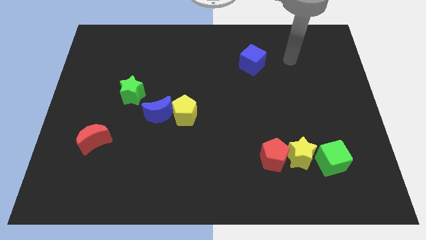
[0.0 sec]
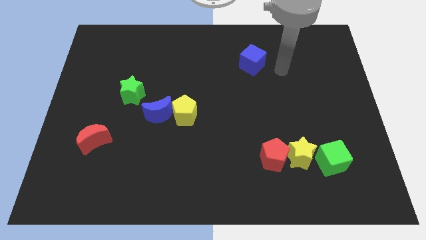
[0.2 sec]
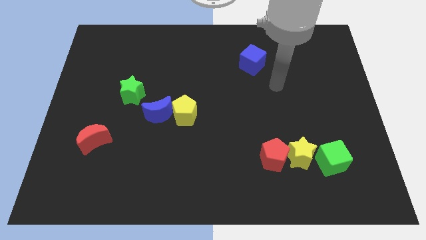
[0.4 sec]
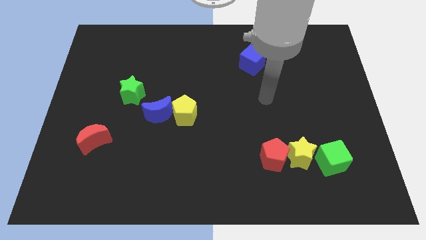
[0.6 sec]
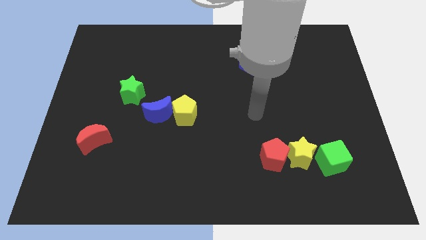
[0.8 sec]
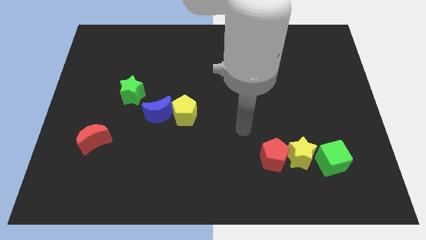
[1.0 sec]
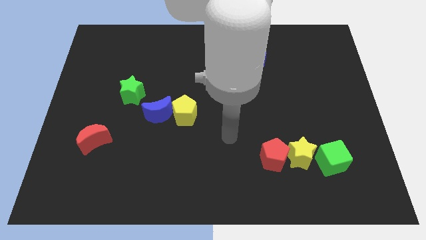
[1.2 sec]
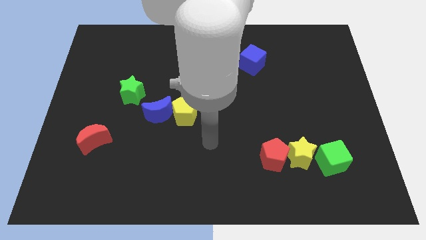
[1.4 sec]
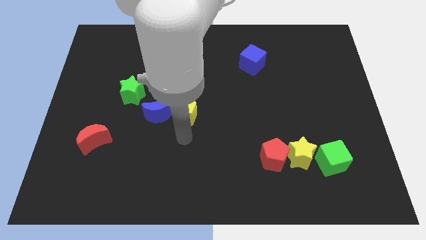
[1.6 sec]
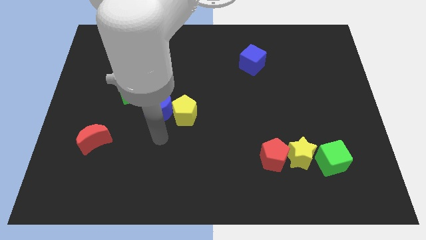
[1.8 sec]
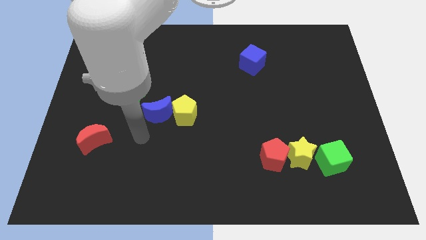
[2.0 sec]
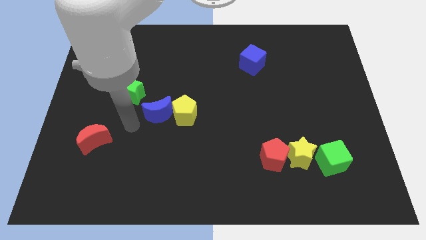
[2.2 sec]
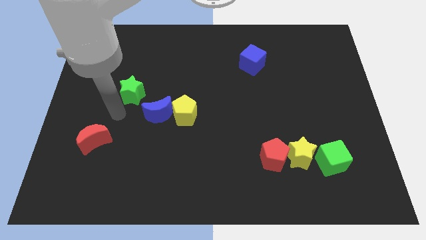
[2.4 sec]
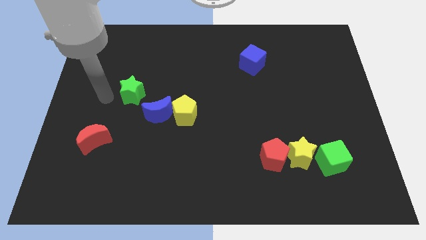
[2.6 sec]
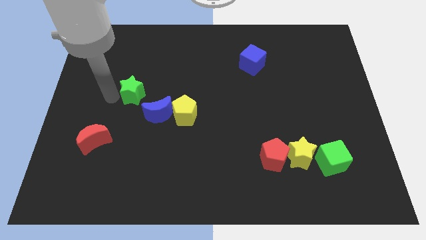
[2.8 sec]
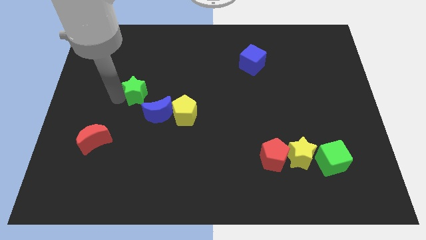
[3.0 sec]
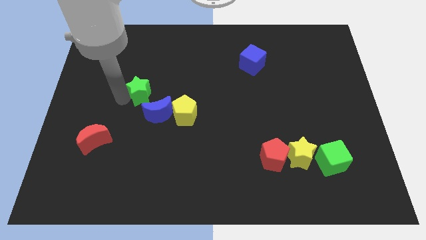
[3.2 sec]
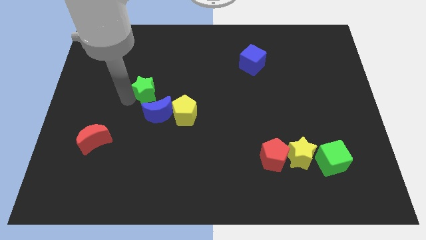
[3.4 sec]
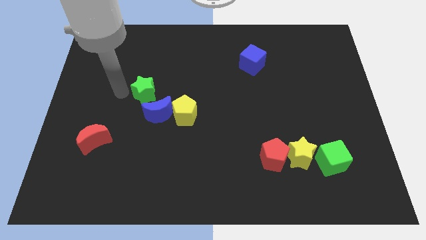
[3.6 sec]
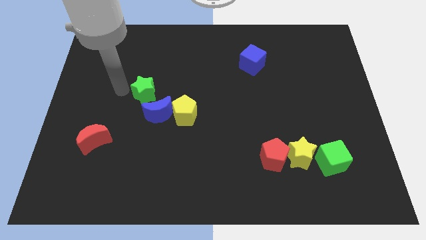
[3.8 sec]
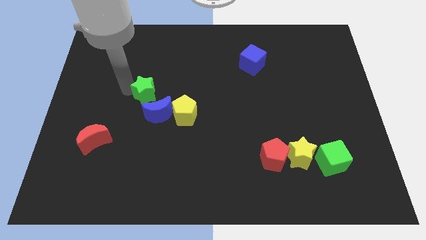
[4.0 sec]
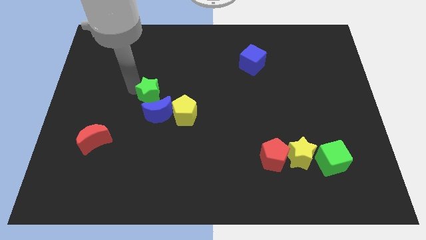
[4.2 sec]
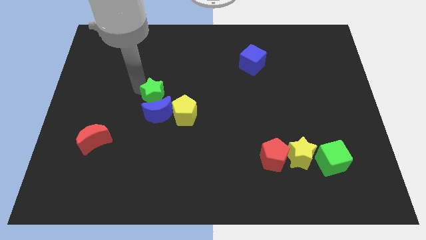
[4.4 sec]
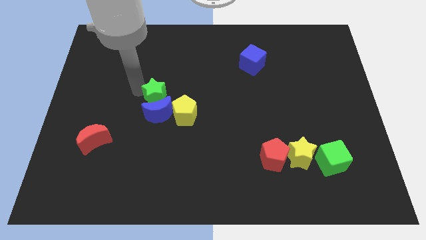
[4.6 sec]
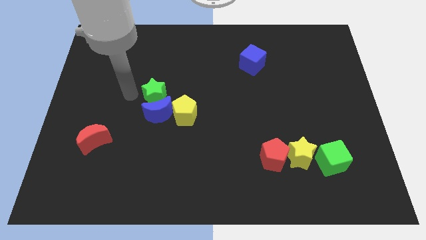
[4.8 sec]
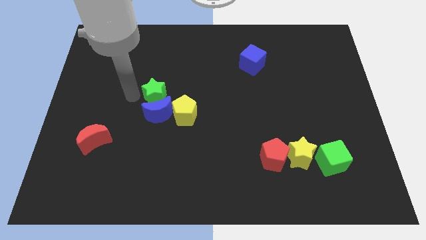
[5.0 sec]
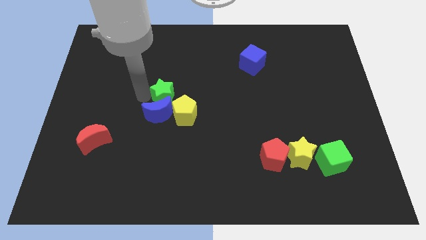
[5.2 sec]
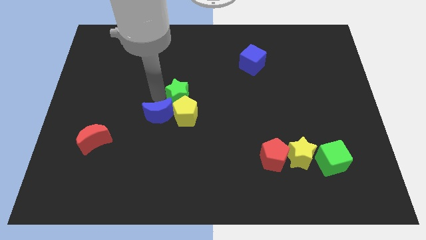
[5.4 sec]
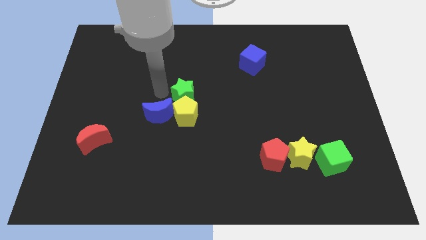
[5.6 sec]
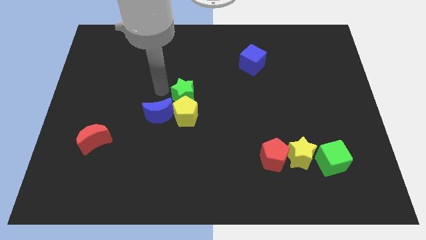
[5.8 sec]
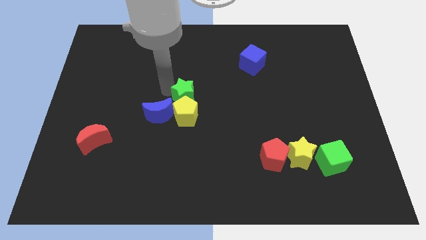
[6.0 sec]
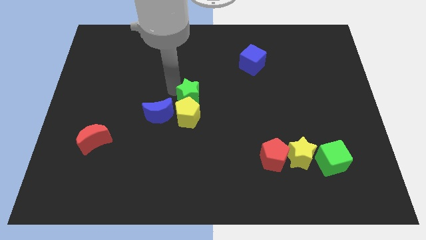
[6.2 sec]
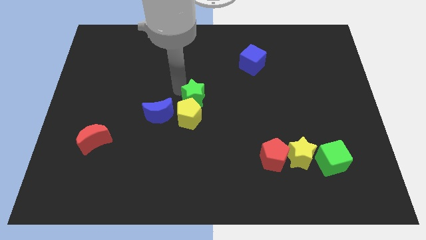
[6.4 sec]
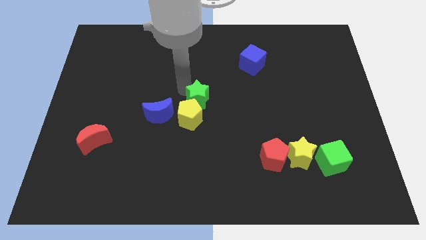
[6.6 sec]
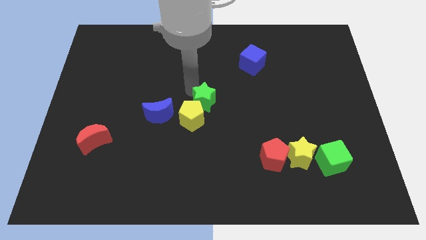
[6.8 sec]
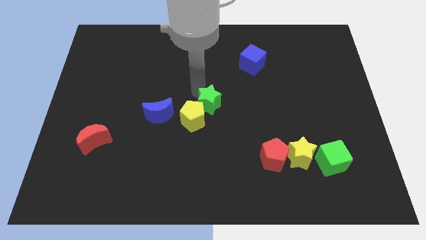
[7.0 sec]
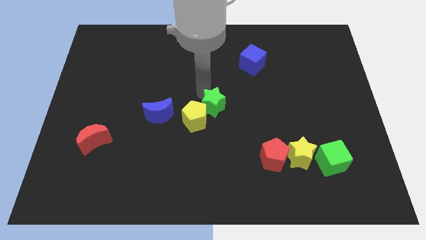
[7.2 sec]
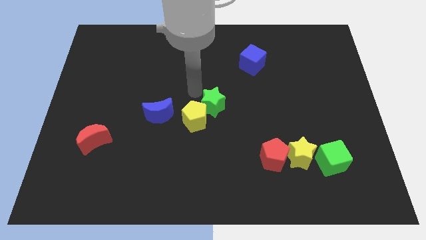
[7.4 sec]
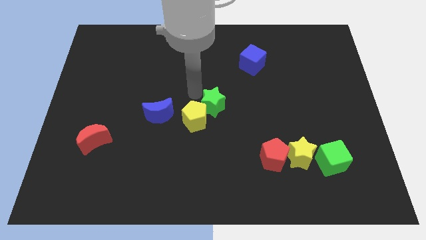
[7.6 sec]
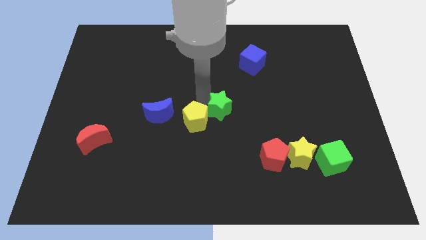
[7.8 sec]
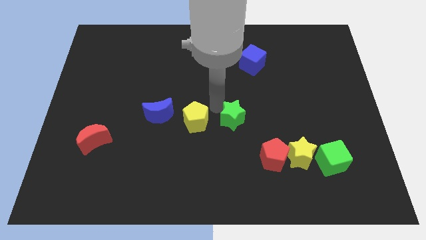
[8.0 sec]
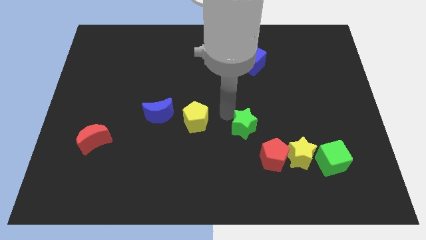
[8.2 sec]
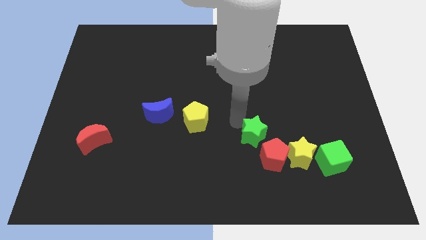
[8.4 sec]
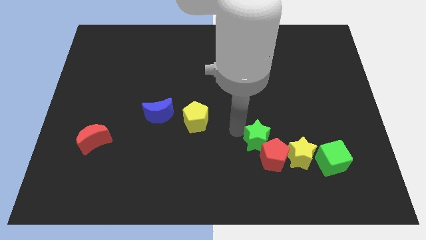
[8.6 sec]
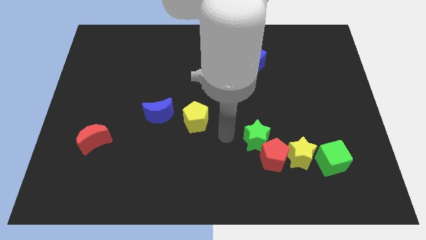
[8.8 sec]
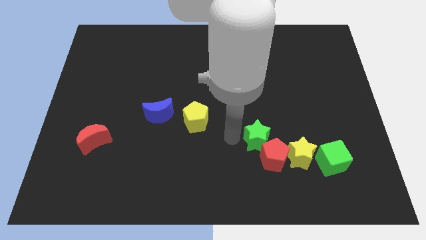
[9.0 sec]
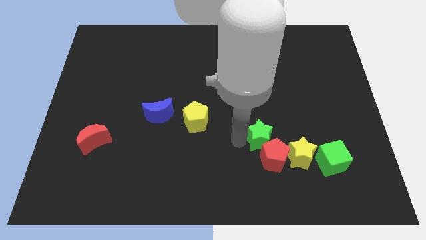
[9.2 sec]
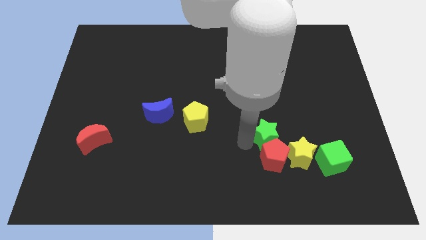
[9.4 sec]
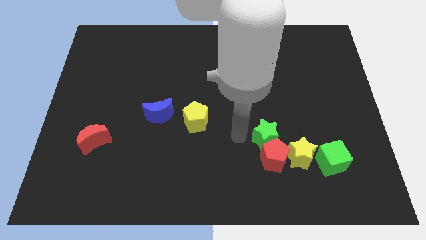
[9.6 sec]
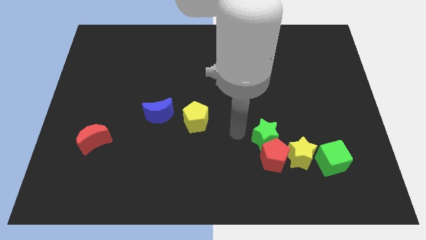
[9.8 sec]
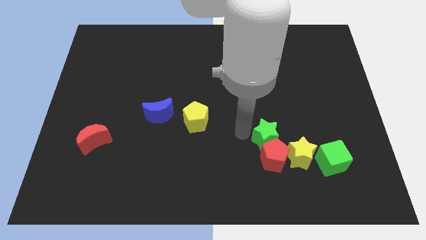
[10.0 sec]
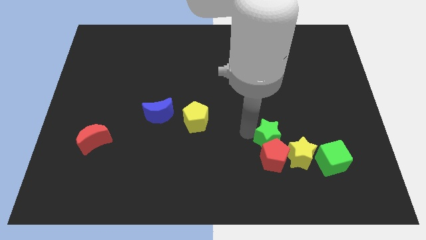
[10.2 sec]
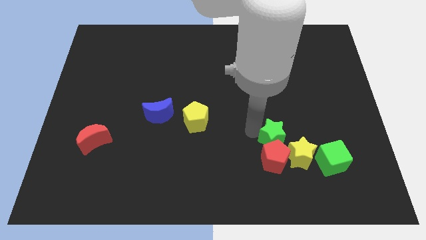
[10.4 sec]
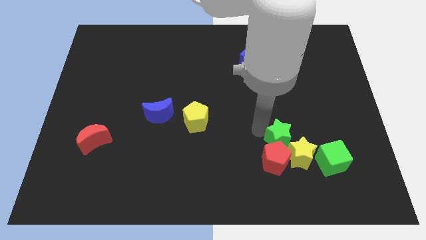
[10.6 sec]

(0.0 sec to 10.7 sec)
move the green star close to the yellow star

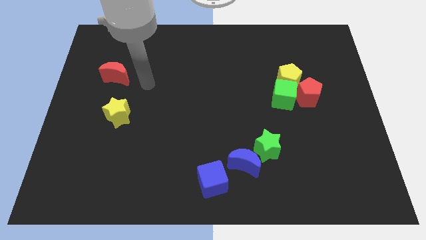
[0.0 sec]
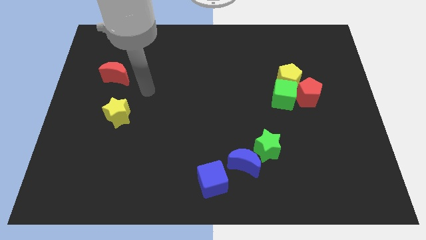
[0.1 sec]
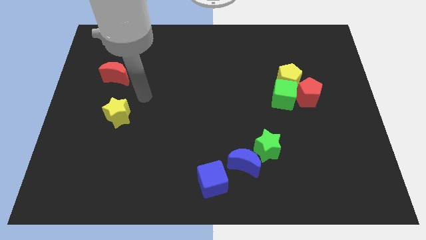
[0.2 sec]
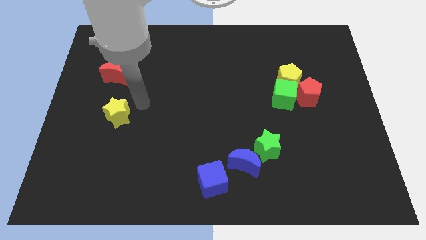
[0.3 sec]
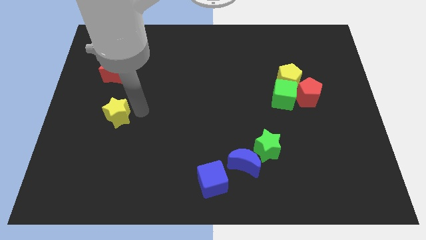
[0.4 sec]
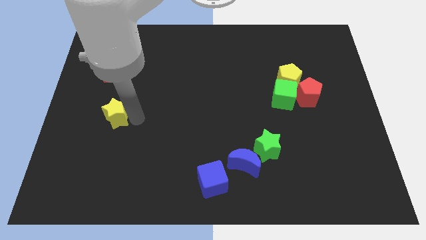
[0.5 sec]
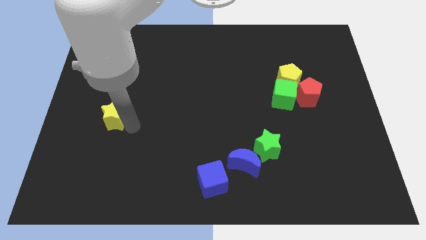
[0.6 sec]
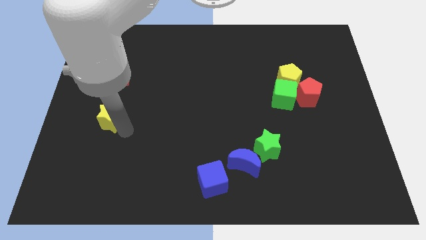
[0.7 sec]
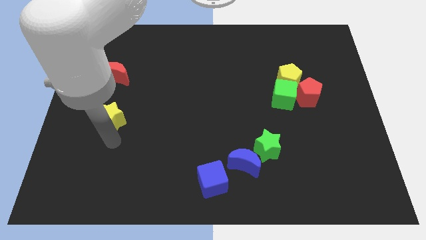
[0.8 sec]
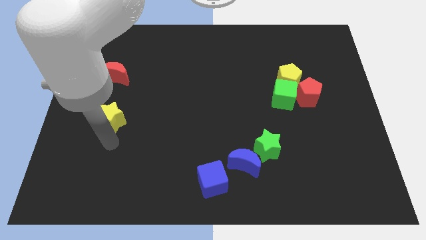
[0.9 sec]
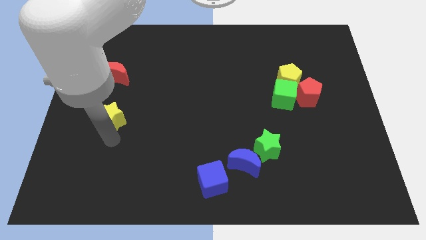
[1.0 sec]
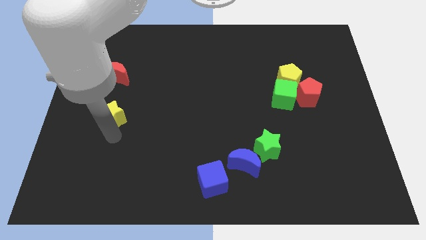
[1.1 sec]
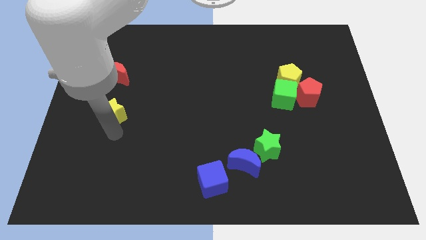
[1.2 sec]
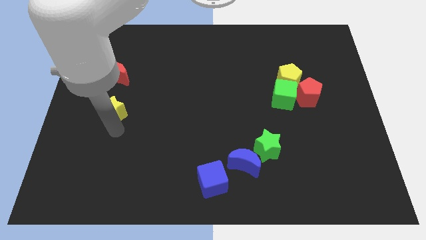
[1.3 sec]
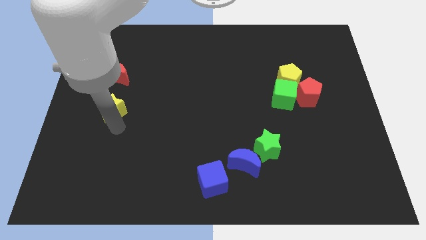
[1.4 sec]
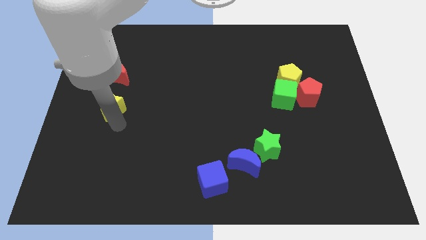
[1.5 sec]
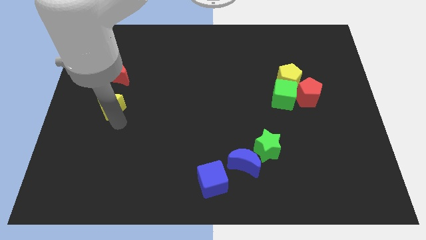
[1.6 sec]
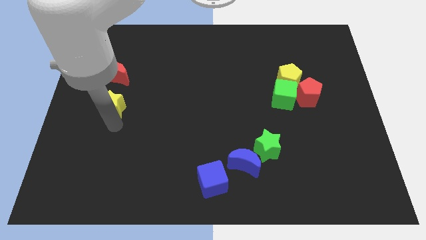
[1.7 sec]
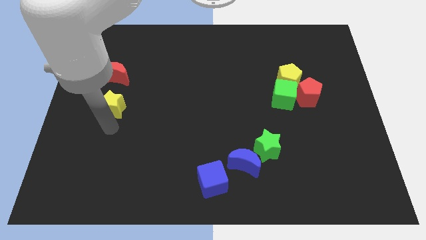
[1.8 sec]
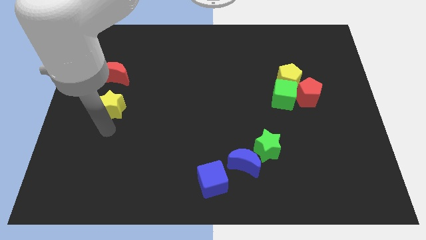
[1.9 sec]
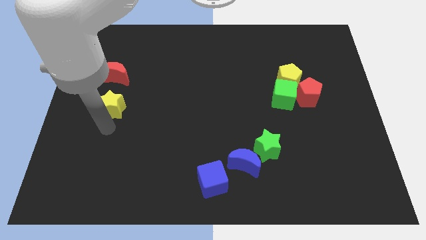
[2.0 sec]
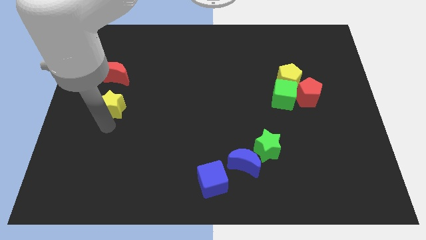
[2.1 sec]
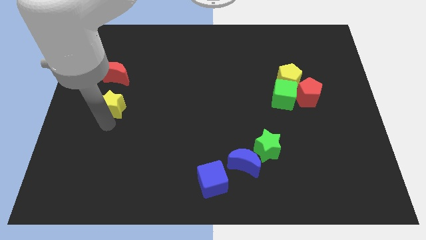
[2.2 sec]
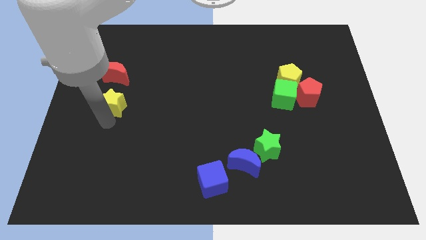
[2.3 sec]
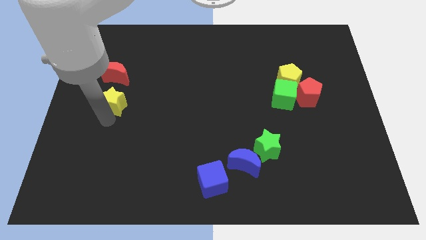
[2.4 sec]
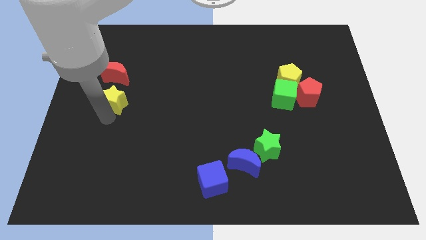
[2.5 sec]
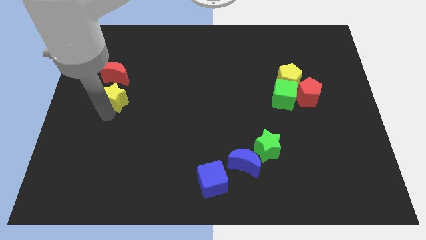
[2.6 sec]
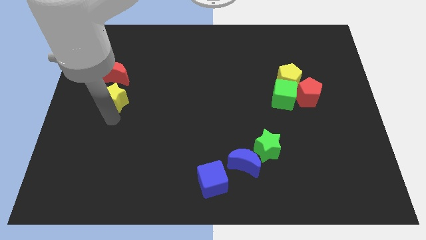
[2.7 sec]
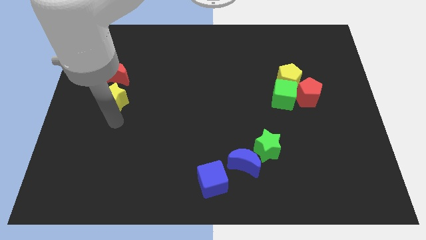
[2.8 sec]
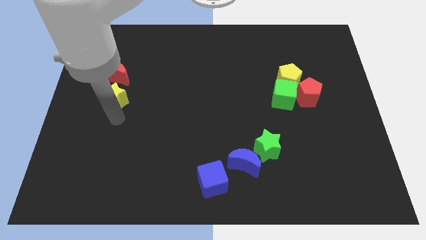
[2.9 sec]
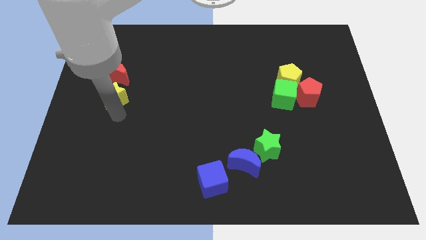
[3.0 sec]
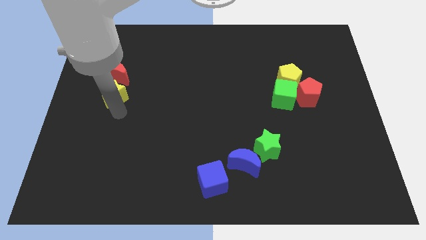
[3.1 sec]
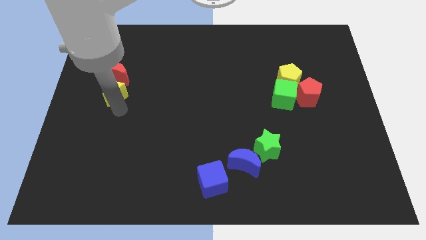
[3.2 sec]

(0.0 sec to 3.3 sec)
put the yellow star next to the red moon
